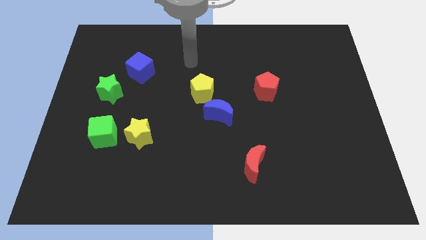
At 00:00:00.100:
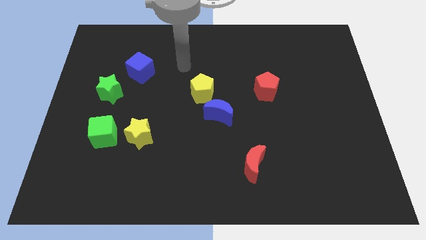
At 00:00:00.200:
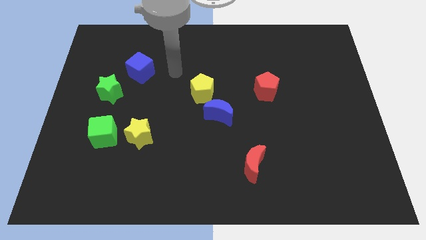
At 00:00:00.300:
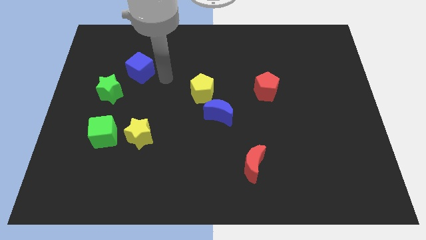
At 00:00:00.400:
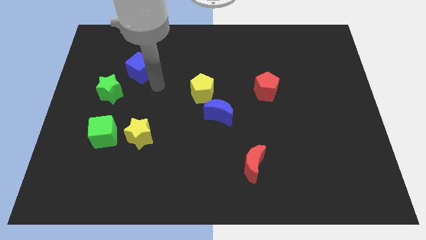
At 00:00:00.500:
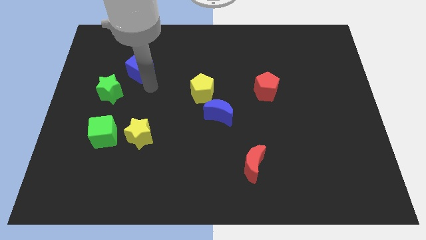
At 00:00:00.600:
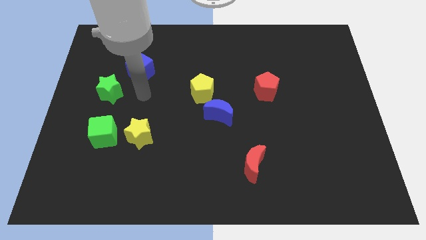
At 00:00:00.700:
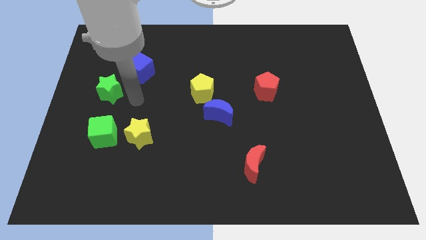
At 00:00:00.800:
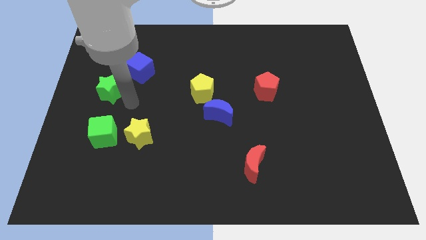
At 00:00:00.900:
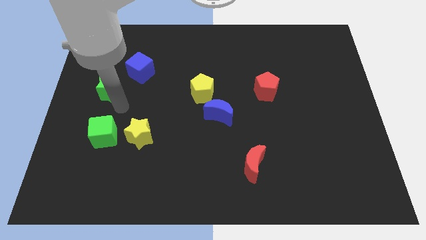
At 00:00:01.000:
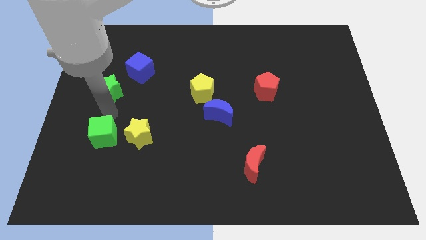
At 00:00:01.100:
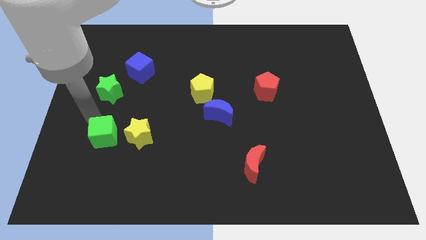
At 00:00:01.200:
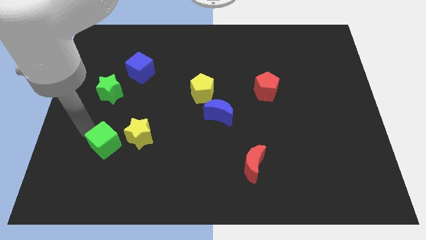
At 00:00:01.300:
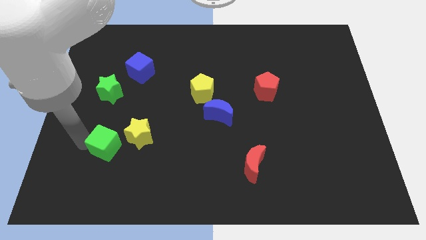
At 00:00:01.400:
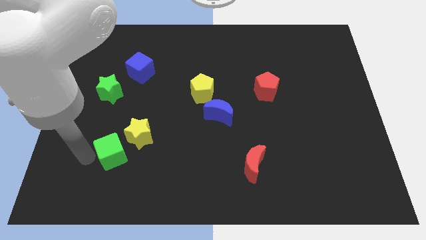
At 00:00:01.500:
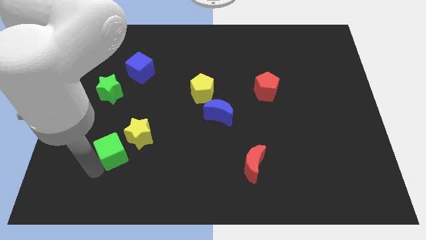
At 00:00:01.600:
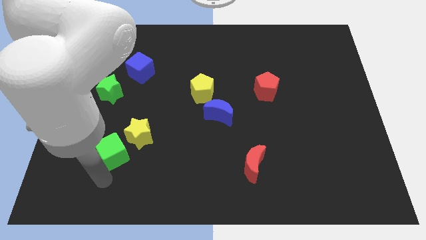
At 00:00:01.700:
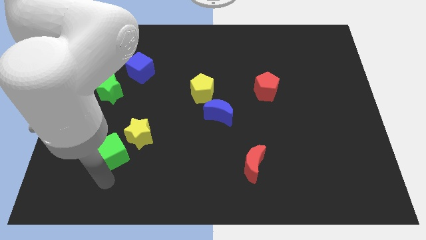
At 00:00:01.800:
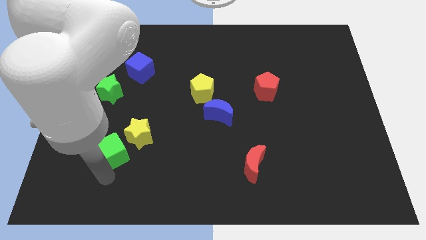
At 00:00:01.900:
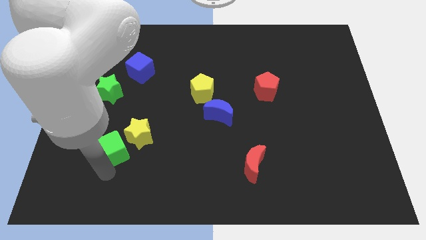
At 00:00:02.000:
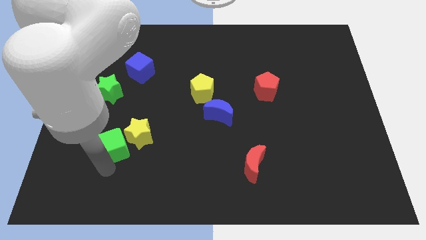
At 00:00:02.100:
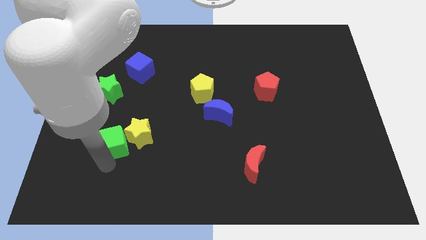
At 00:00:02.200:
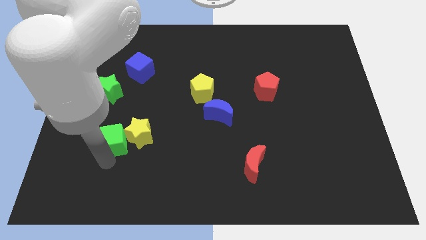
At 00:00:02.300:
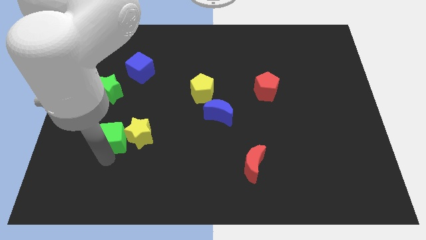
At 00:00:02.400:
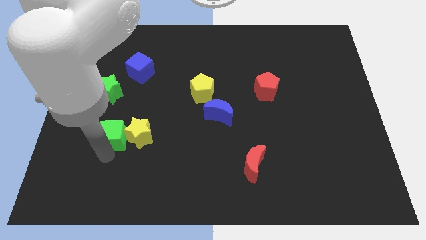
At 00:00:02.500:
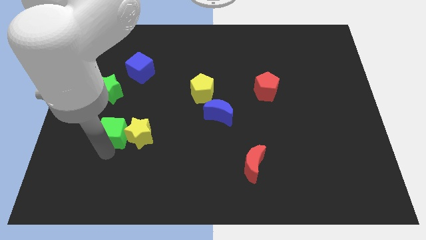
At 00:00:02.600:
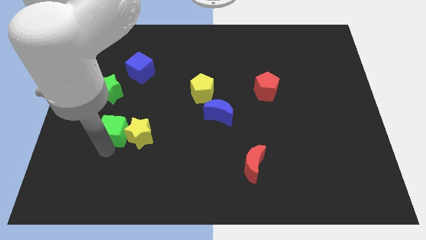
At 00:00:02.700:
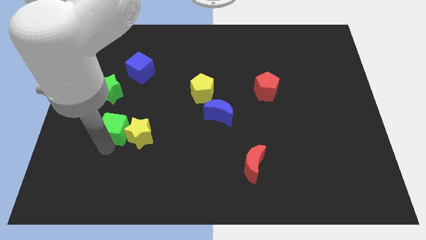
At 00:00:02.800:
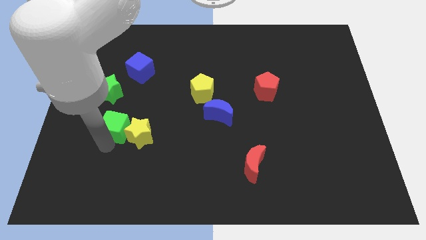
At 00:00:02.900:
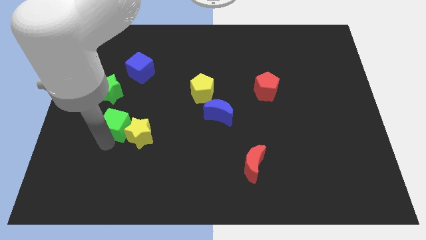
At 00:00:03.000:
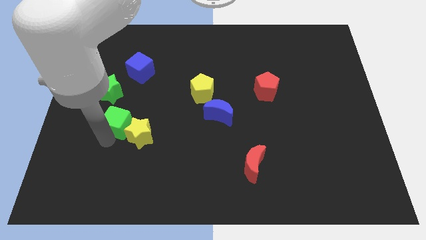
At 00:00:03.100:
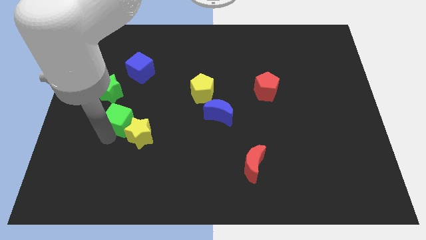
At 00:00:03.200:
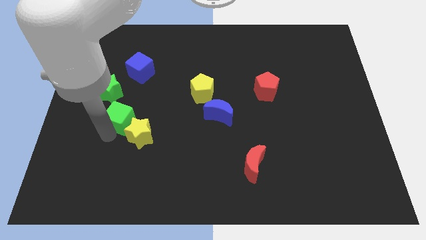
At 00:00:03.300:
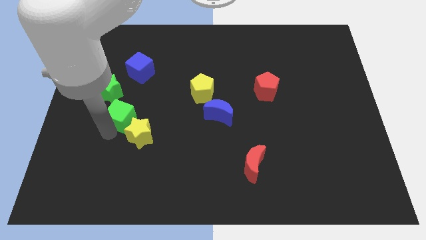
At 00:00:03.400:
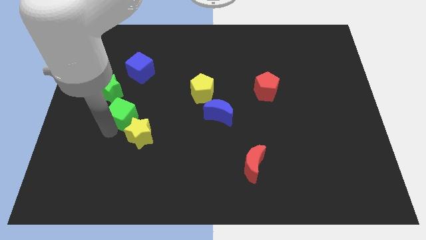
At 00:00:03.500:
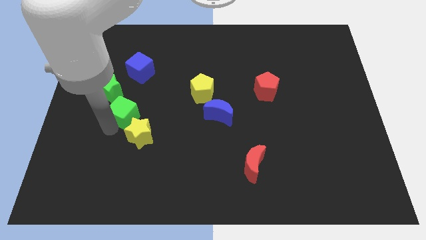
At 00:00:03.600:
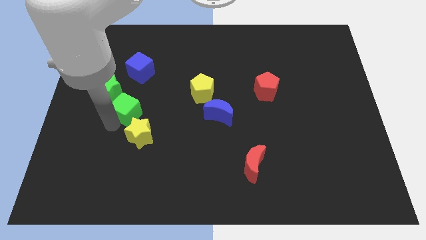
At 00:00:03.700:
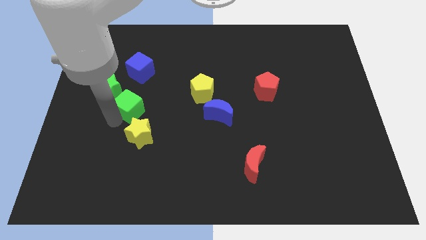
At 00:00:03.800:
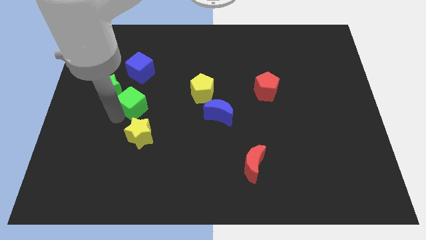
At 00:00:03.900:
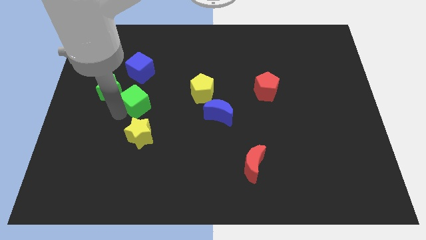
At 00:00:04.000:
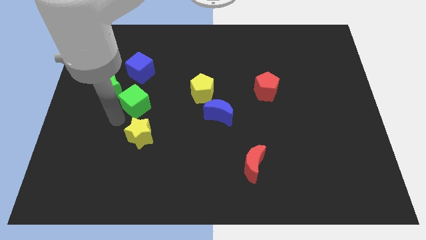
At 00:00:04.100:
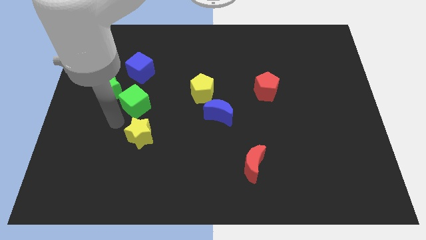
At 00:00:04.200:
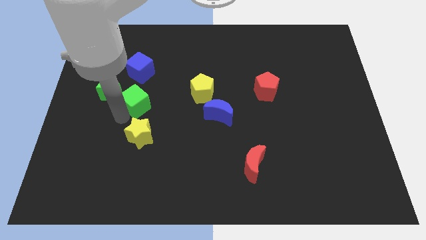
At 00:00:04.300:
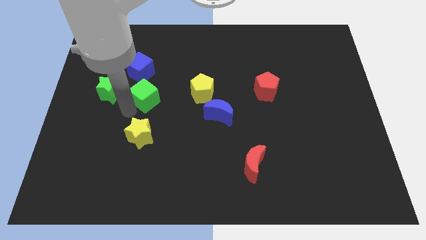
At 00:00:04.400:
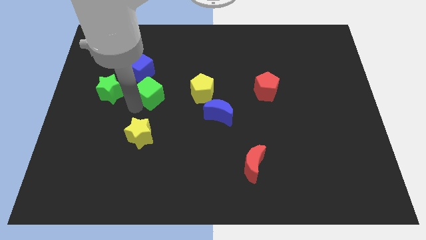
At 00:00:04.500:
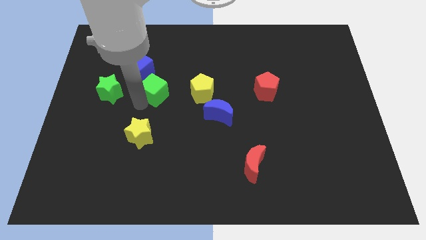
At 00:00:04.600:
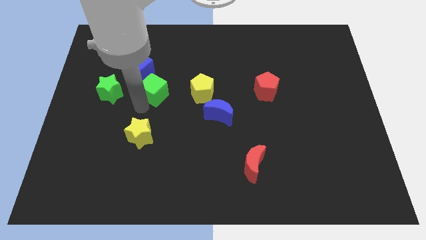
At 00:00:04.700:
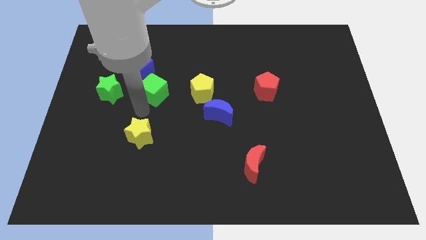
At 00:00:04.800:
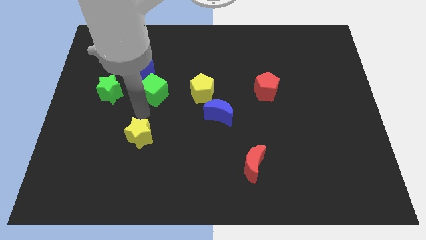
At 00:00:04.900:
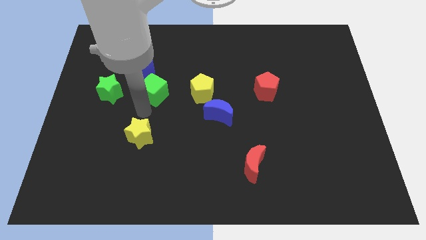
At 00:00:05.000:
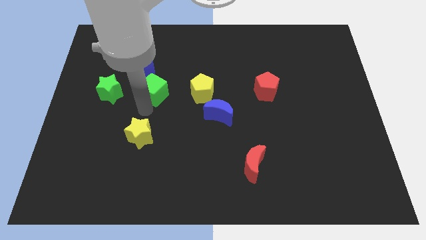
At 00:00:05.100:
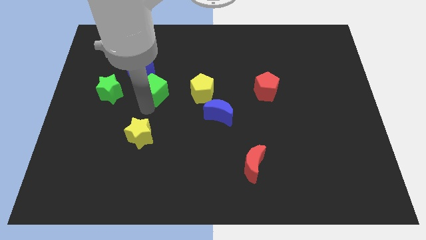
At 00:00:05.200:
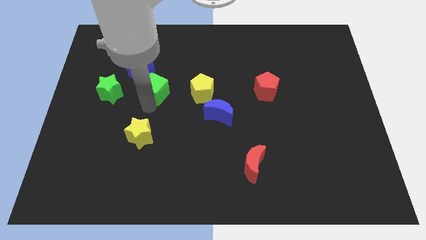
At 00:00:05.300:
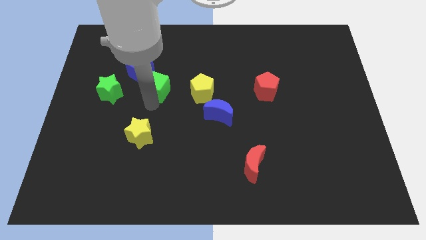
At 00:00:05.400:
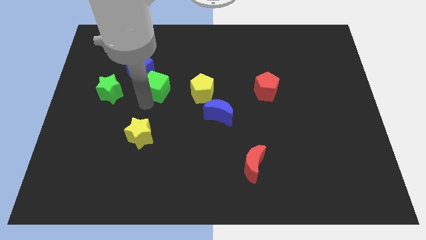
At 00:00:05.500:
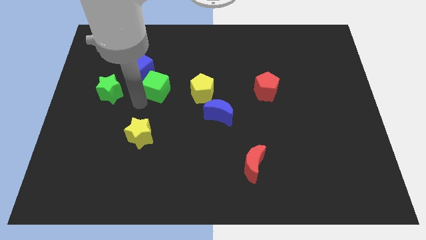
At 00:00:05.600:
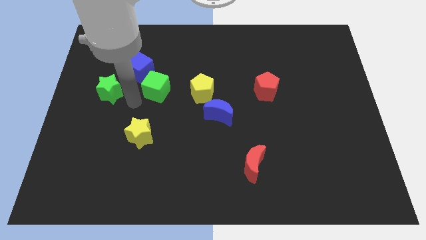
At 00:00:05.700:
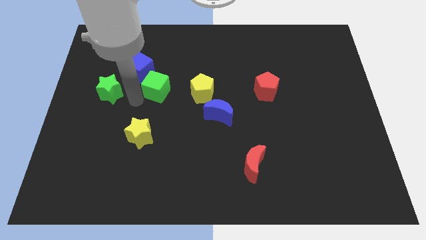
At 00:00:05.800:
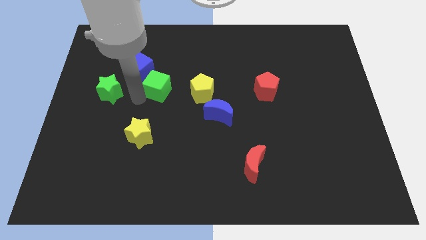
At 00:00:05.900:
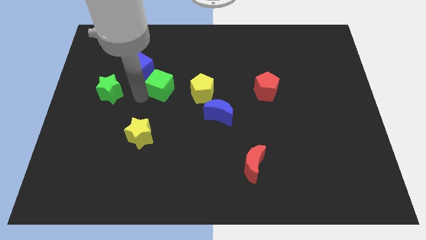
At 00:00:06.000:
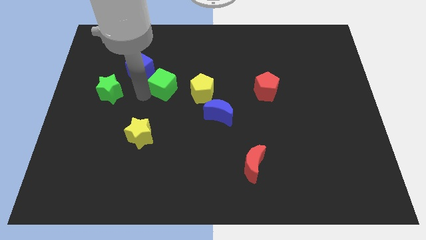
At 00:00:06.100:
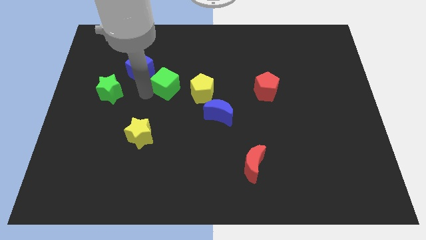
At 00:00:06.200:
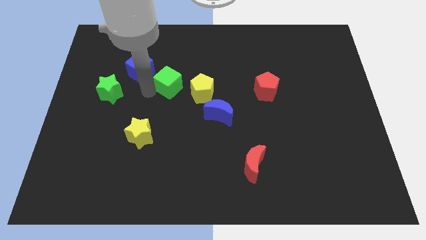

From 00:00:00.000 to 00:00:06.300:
put the green cube to the top left side of the yellow pentagon

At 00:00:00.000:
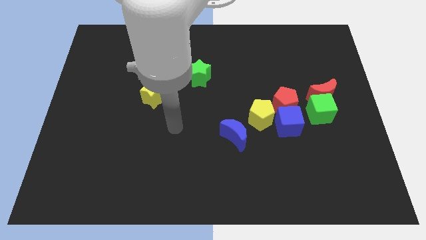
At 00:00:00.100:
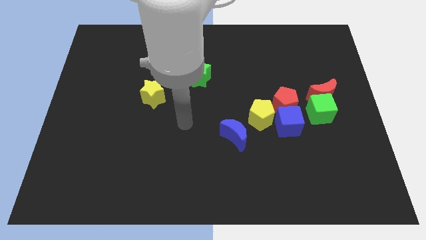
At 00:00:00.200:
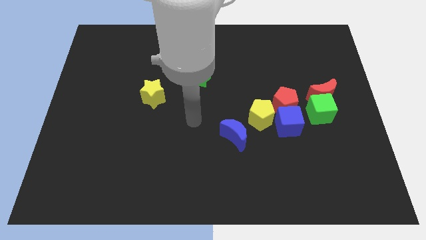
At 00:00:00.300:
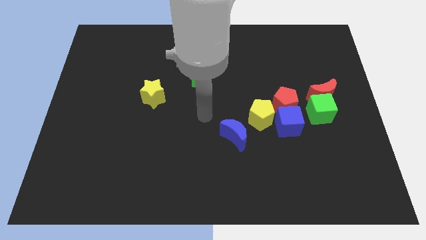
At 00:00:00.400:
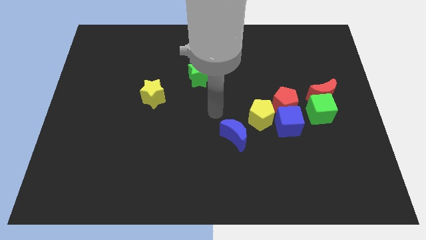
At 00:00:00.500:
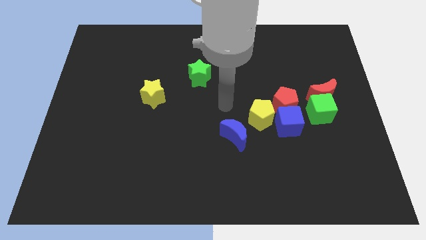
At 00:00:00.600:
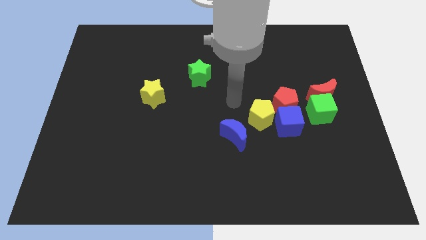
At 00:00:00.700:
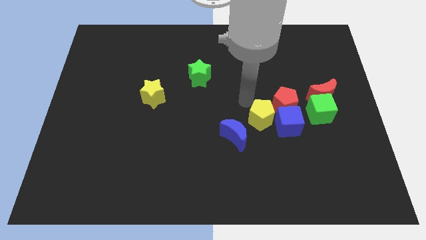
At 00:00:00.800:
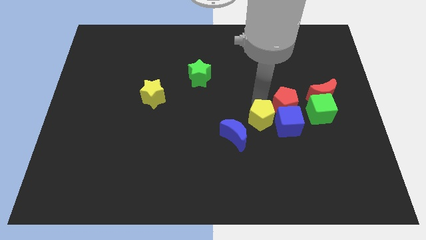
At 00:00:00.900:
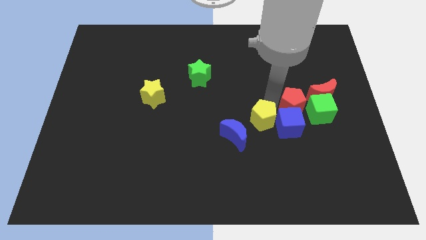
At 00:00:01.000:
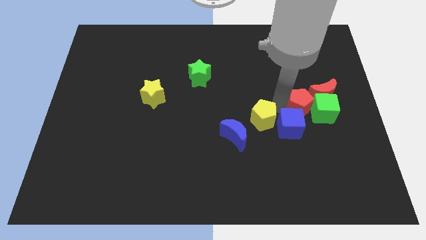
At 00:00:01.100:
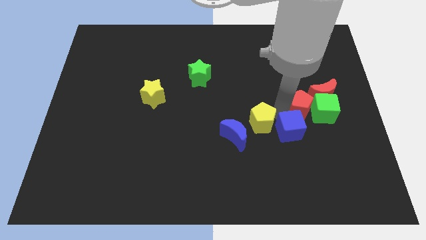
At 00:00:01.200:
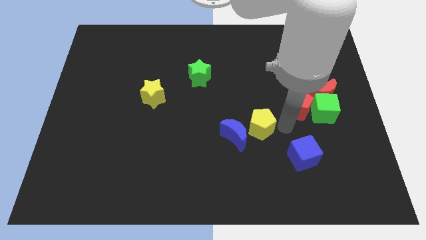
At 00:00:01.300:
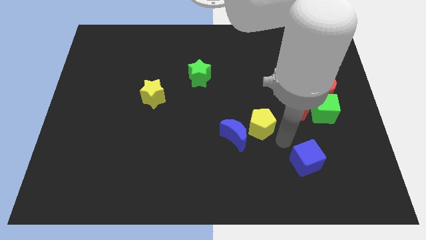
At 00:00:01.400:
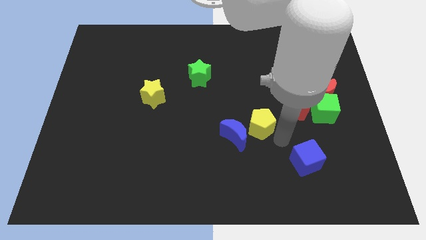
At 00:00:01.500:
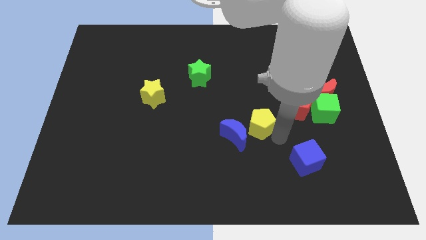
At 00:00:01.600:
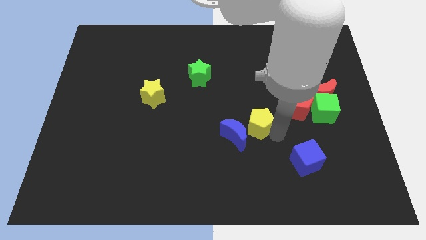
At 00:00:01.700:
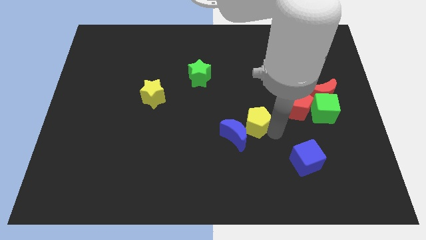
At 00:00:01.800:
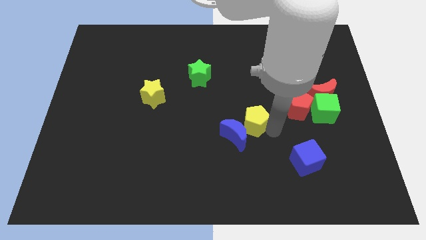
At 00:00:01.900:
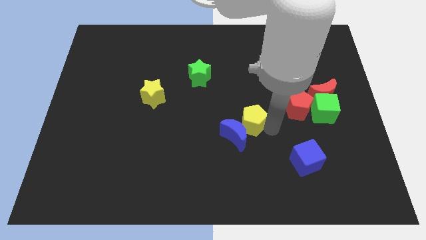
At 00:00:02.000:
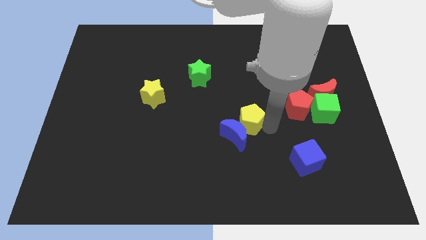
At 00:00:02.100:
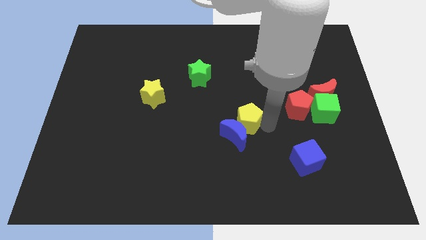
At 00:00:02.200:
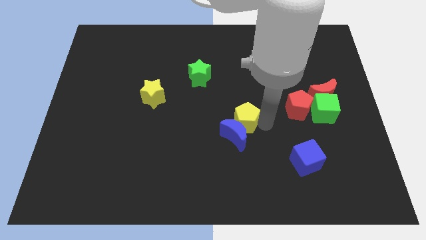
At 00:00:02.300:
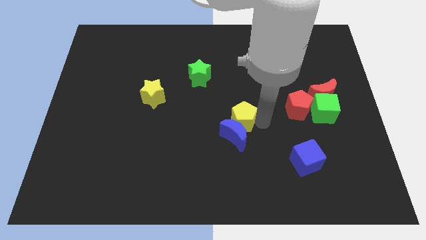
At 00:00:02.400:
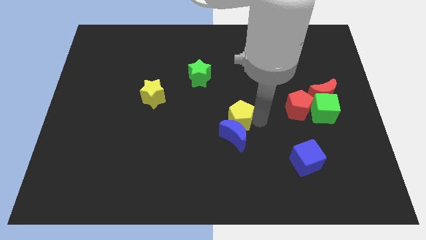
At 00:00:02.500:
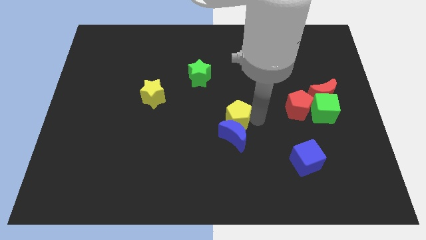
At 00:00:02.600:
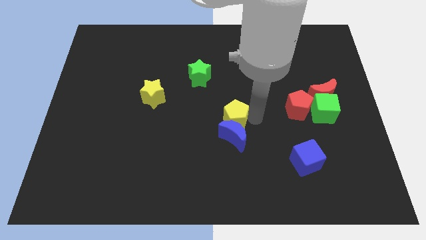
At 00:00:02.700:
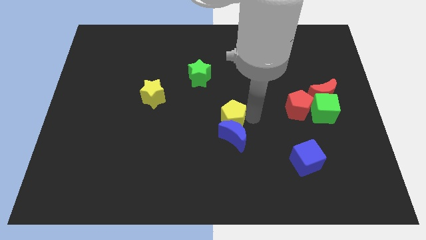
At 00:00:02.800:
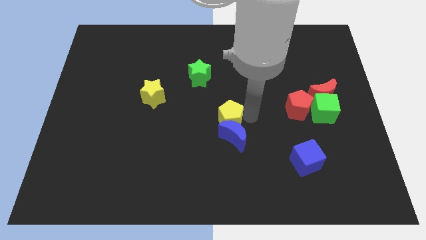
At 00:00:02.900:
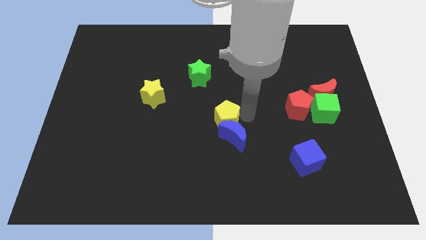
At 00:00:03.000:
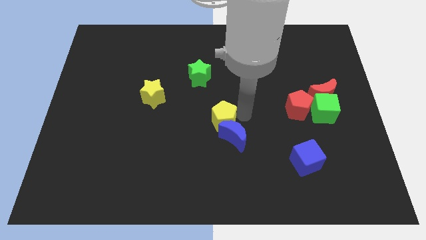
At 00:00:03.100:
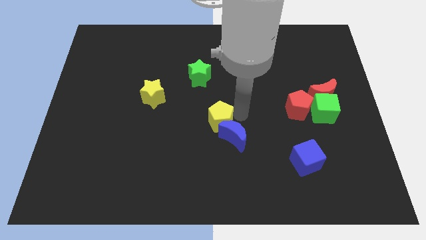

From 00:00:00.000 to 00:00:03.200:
move the yellow pentagon to the bottom side of the green star
